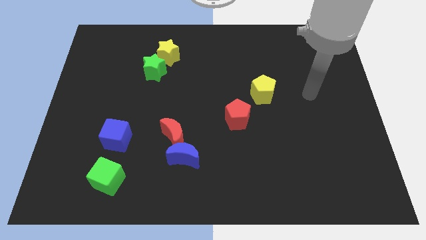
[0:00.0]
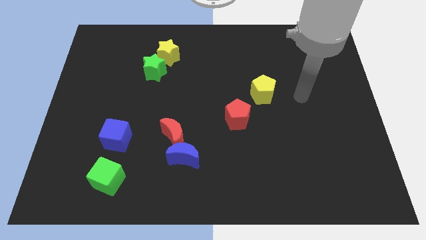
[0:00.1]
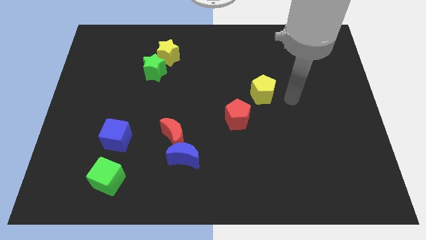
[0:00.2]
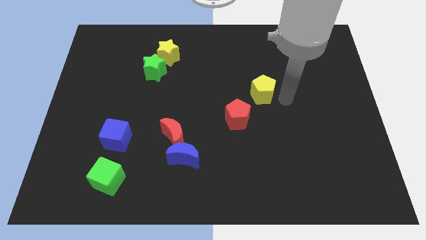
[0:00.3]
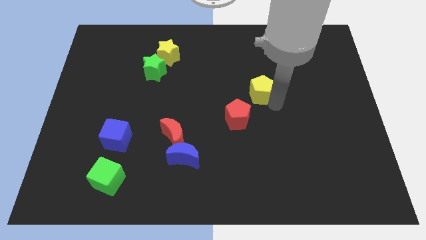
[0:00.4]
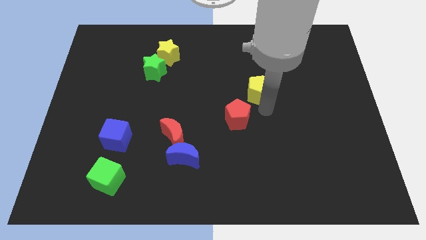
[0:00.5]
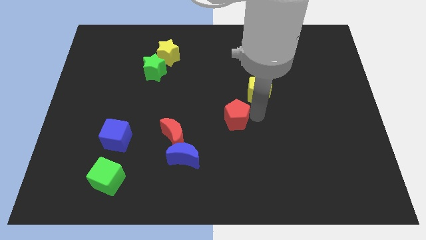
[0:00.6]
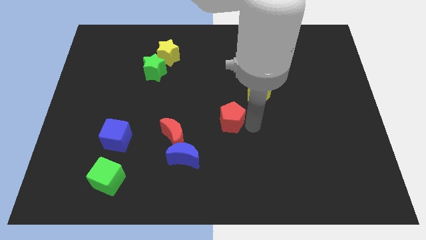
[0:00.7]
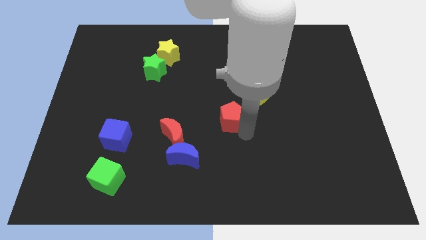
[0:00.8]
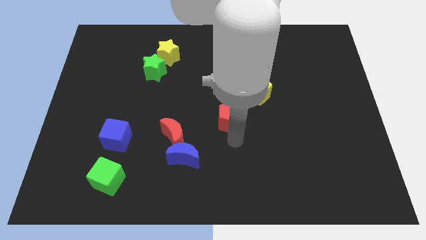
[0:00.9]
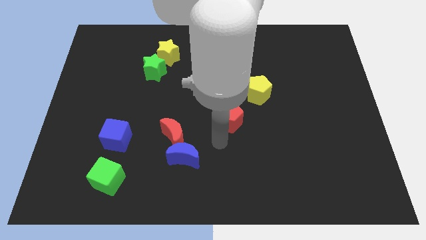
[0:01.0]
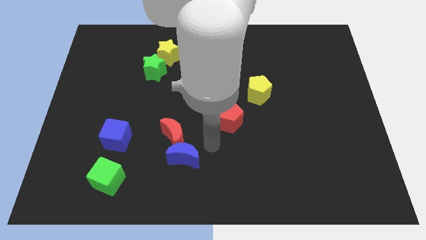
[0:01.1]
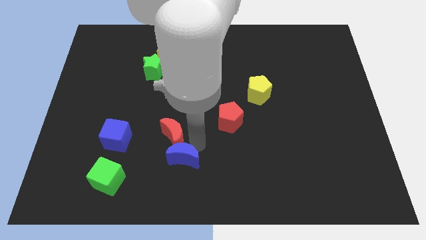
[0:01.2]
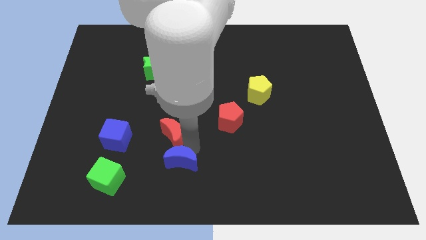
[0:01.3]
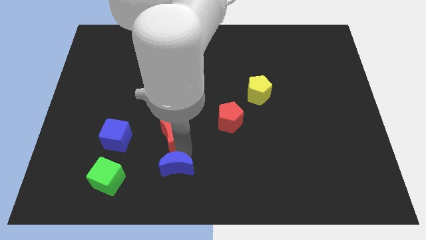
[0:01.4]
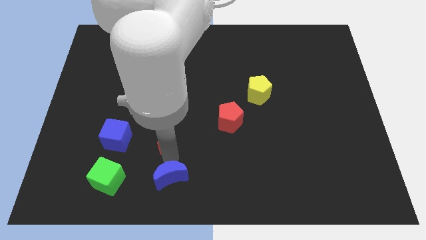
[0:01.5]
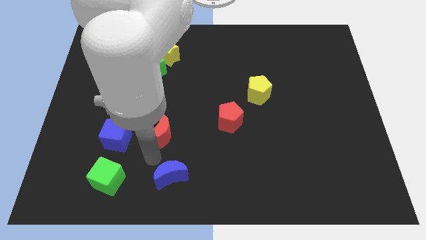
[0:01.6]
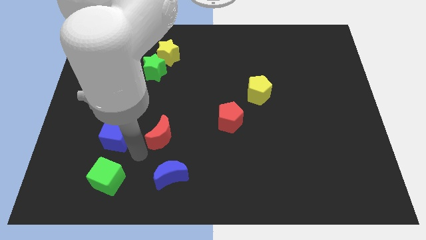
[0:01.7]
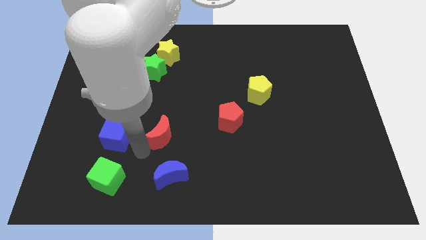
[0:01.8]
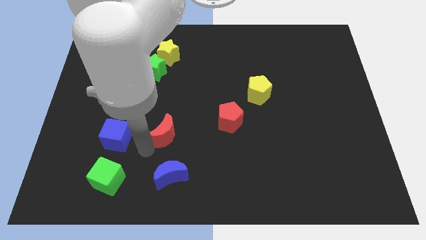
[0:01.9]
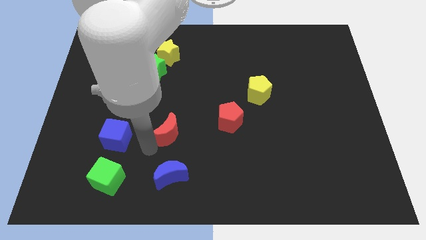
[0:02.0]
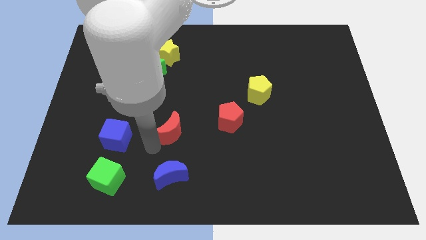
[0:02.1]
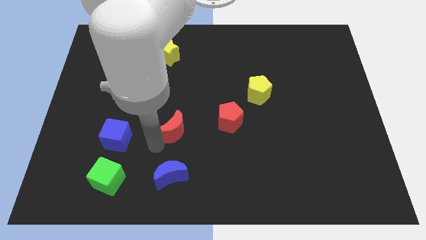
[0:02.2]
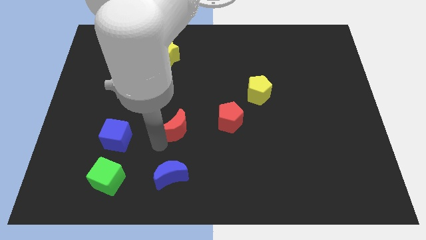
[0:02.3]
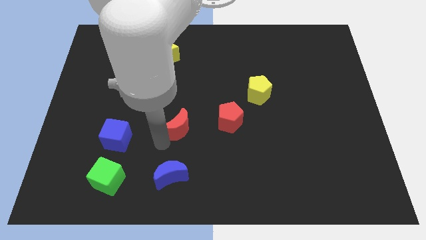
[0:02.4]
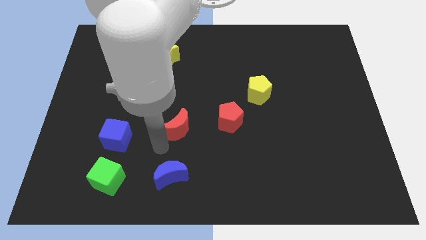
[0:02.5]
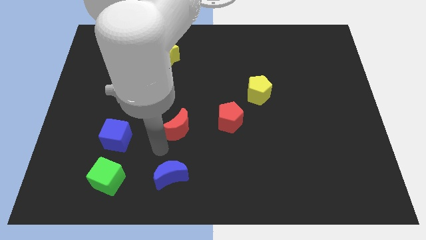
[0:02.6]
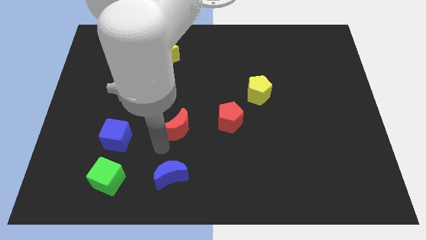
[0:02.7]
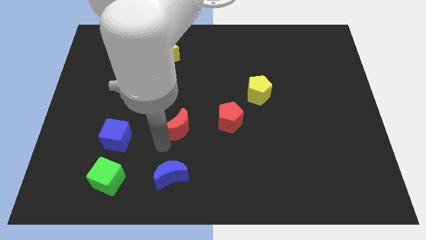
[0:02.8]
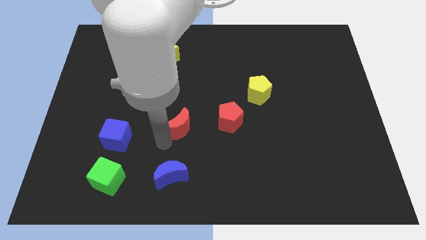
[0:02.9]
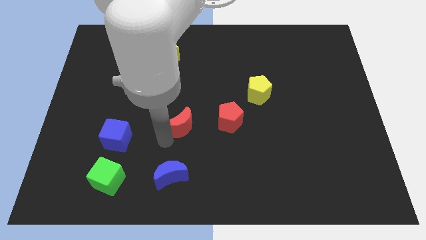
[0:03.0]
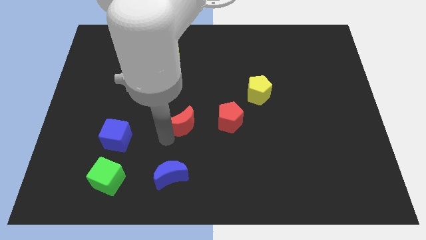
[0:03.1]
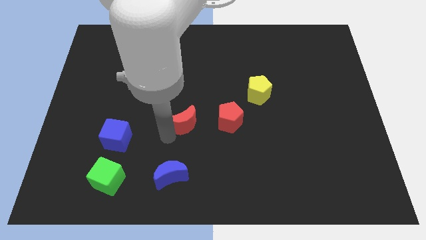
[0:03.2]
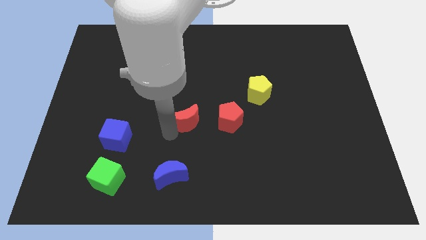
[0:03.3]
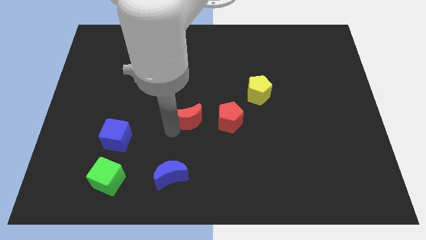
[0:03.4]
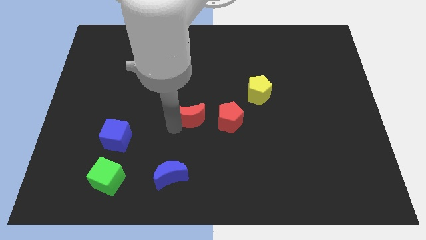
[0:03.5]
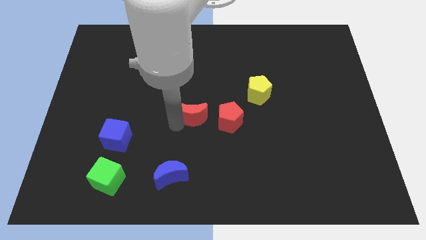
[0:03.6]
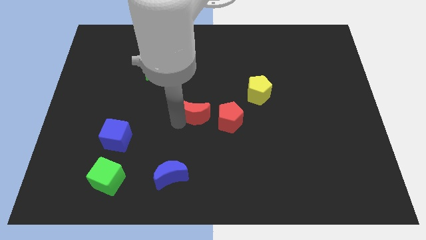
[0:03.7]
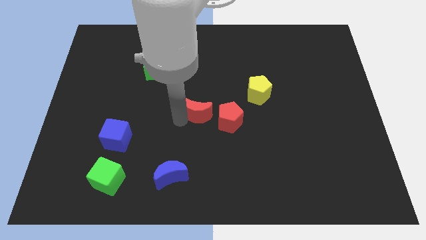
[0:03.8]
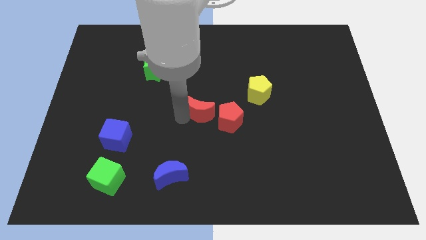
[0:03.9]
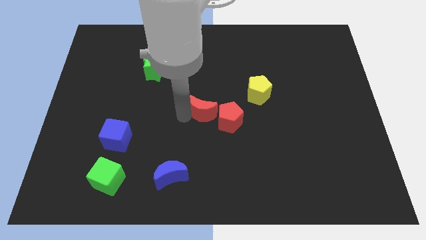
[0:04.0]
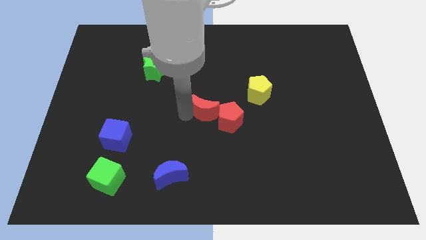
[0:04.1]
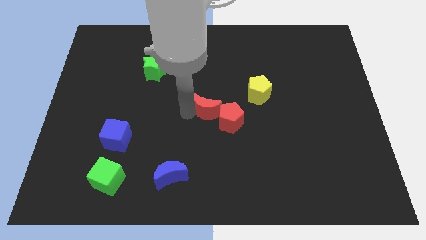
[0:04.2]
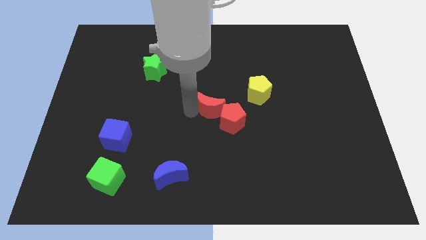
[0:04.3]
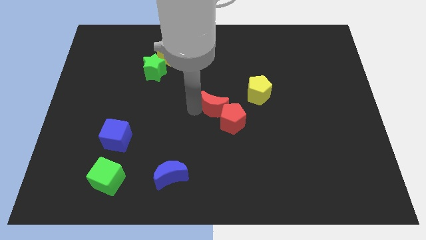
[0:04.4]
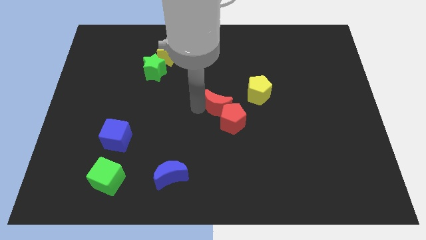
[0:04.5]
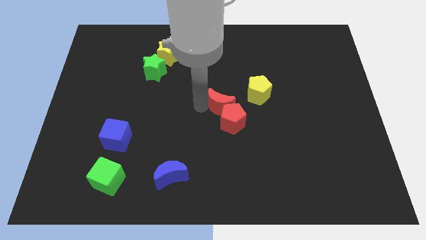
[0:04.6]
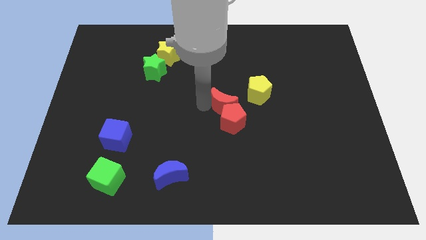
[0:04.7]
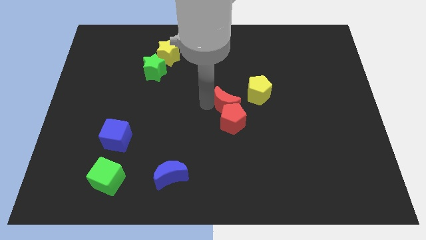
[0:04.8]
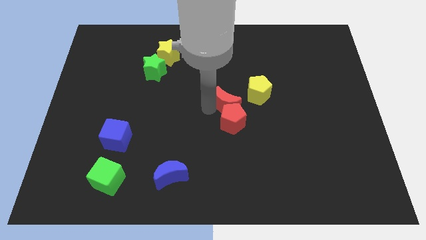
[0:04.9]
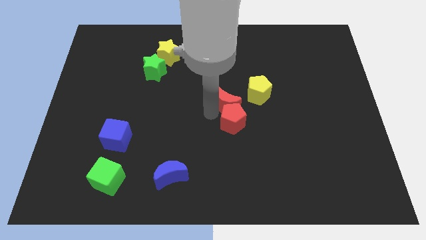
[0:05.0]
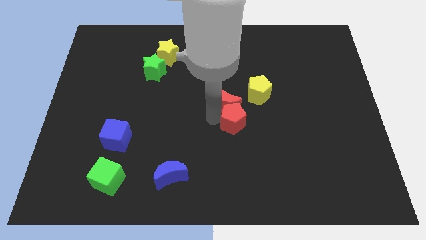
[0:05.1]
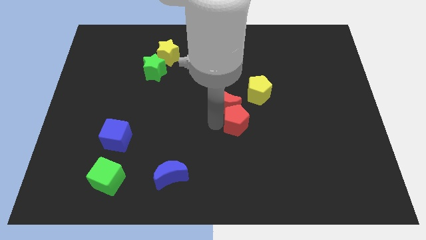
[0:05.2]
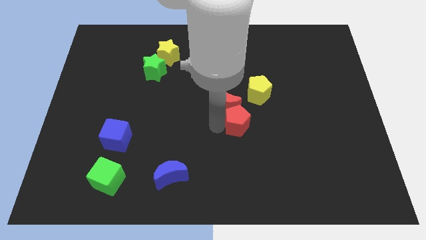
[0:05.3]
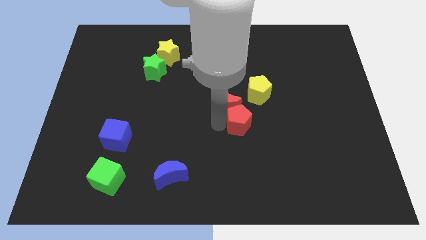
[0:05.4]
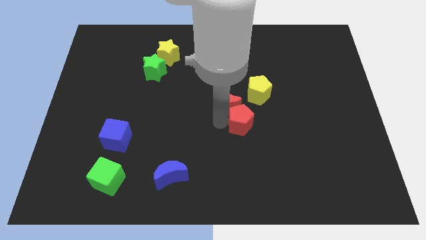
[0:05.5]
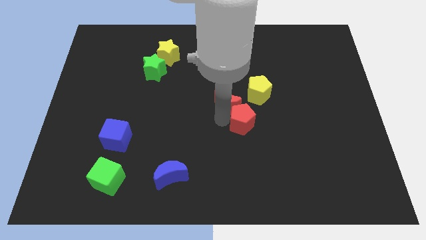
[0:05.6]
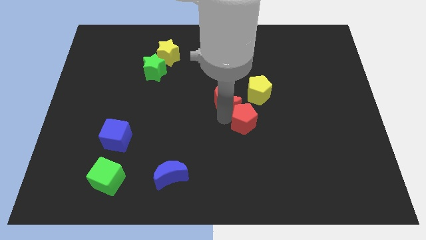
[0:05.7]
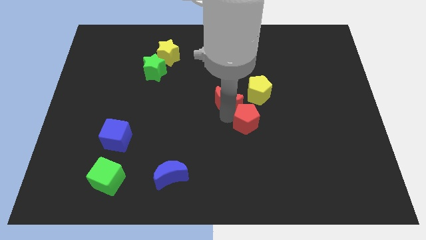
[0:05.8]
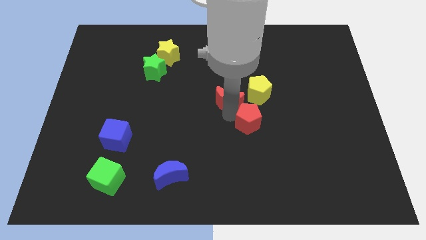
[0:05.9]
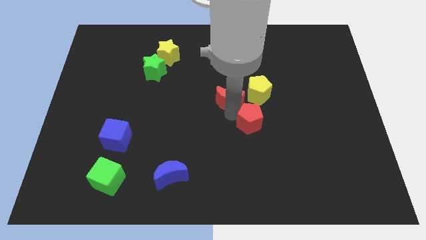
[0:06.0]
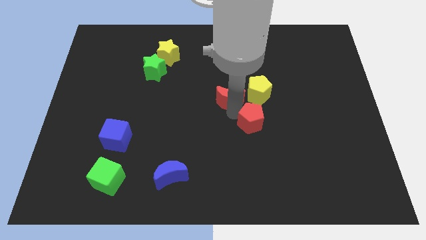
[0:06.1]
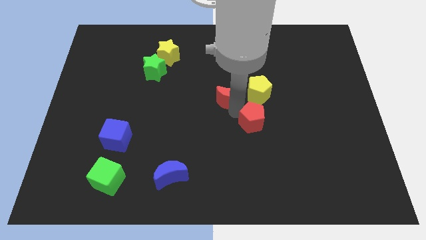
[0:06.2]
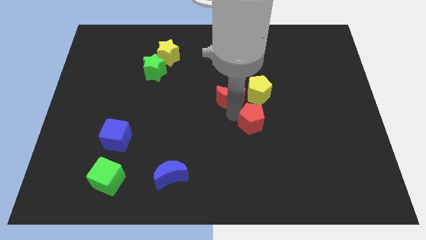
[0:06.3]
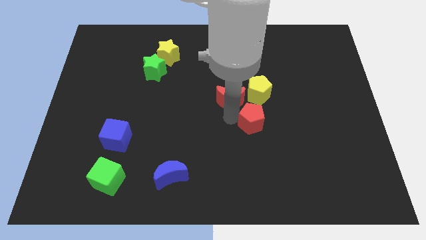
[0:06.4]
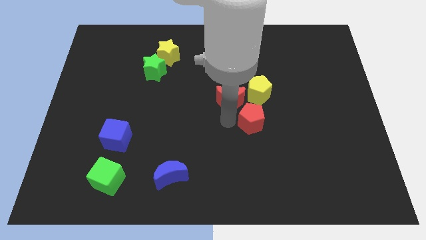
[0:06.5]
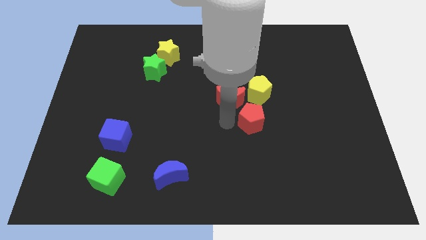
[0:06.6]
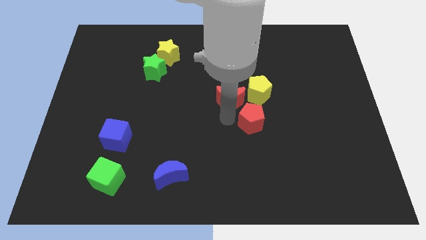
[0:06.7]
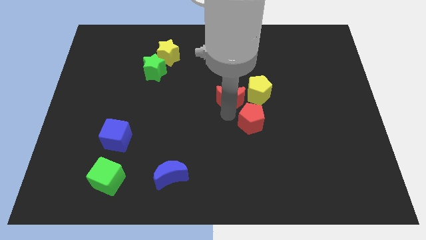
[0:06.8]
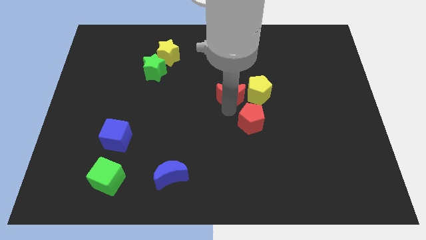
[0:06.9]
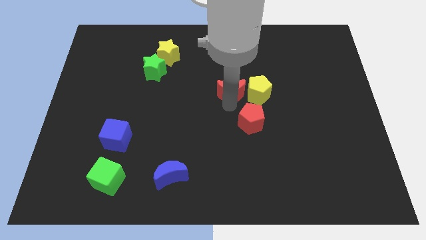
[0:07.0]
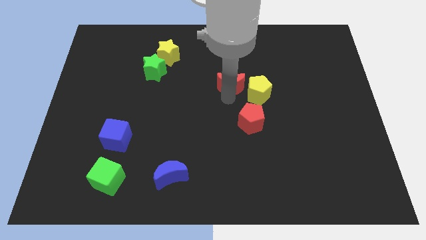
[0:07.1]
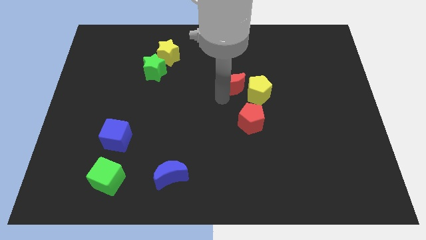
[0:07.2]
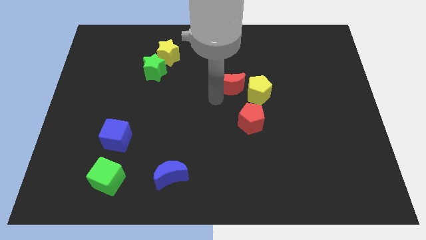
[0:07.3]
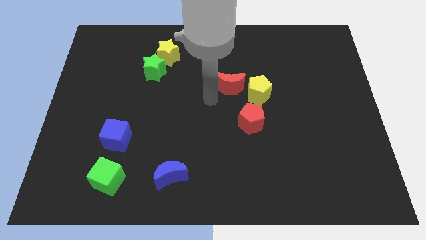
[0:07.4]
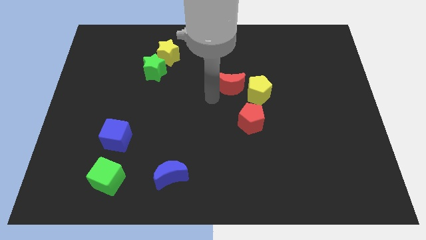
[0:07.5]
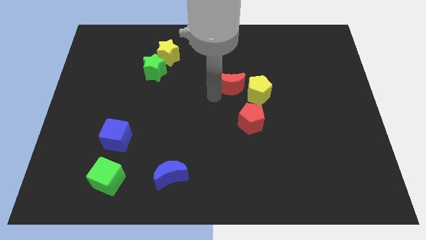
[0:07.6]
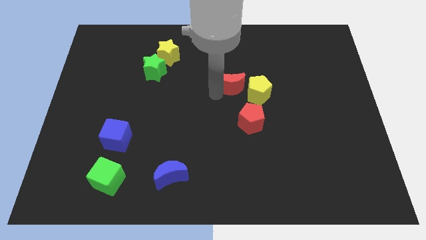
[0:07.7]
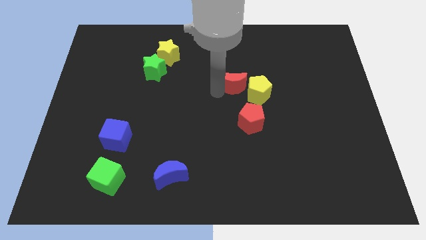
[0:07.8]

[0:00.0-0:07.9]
push the red moon upwards and right diagonally
